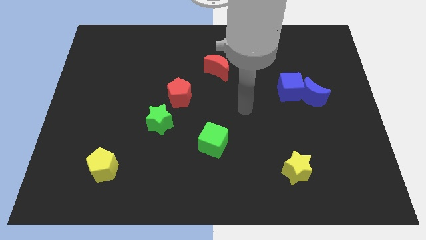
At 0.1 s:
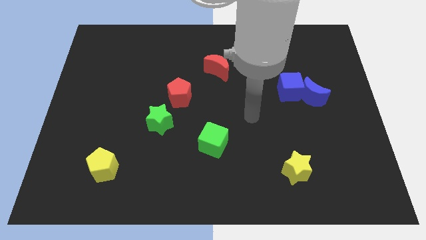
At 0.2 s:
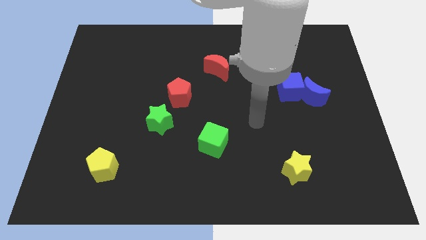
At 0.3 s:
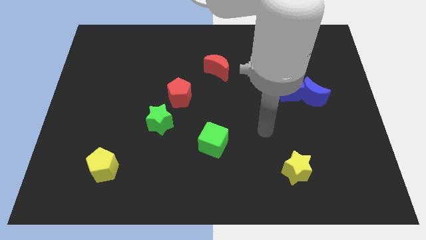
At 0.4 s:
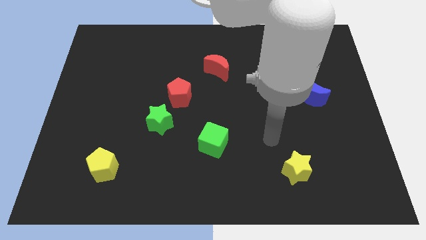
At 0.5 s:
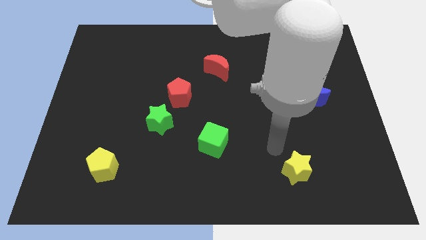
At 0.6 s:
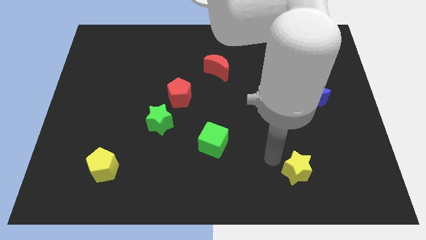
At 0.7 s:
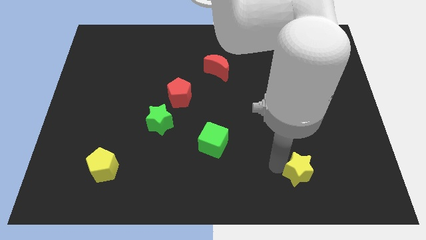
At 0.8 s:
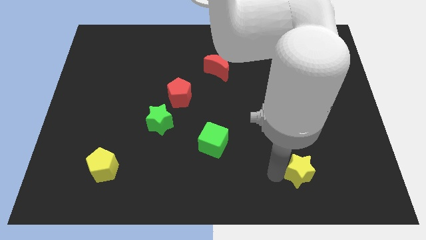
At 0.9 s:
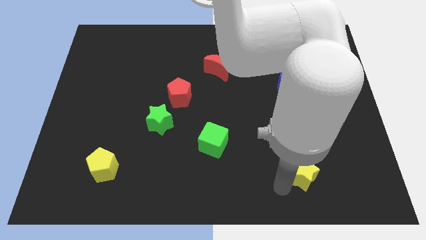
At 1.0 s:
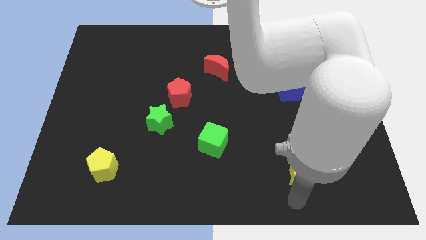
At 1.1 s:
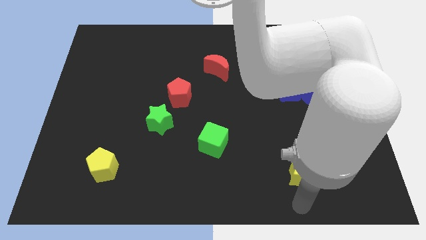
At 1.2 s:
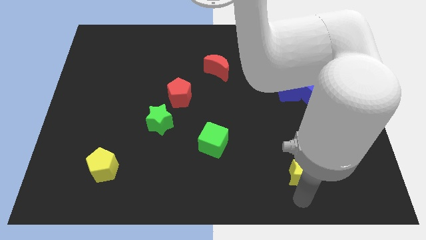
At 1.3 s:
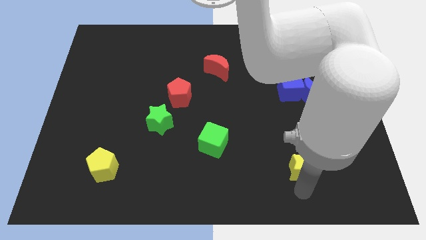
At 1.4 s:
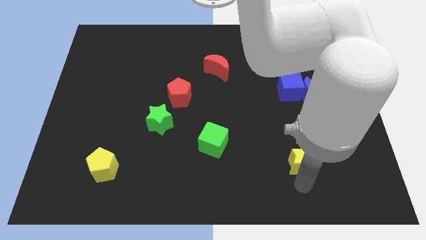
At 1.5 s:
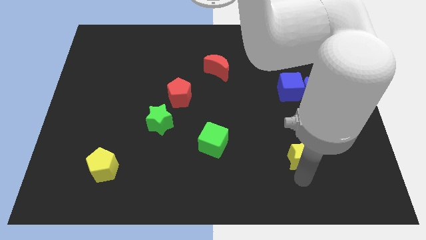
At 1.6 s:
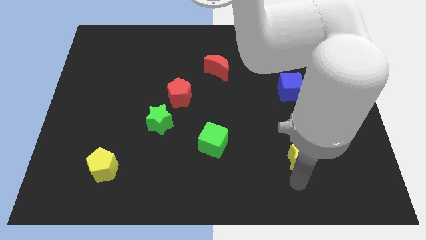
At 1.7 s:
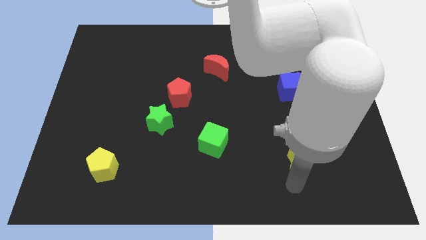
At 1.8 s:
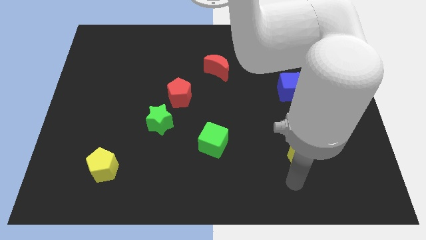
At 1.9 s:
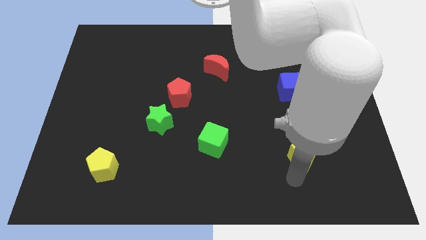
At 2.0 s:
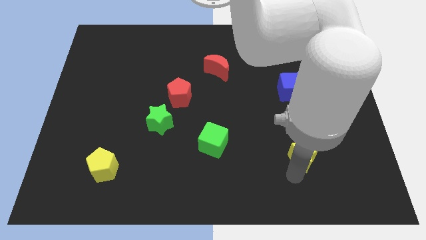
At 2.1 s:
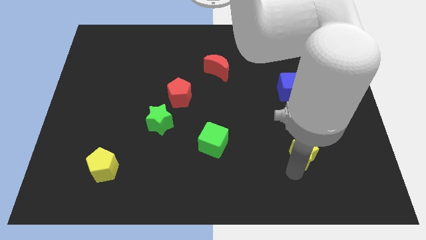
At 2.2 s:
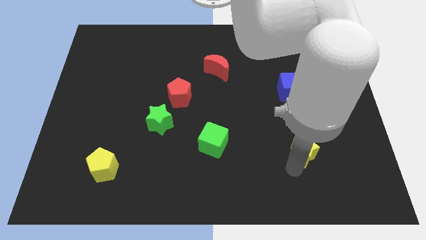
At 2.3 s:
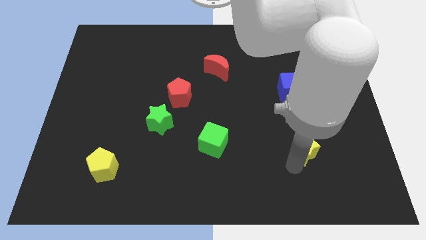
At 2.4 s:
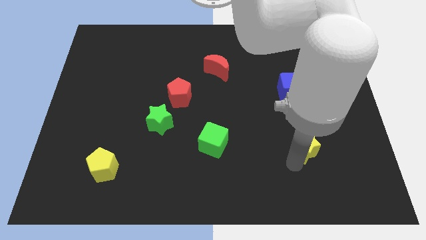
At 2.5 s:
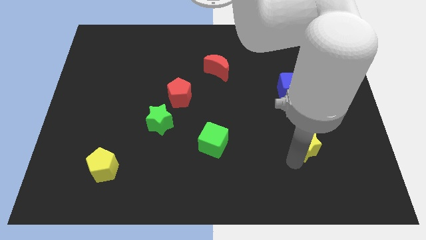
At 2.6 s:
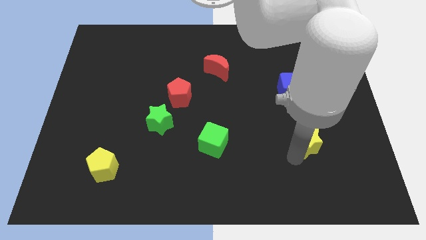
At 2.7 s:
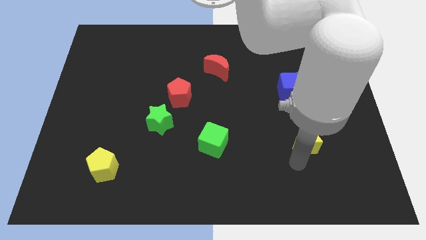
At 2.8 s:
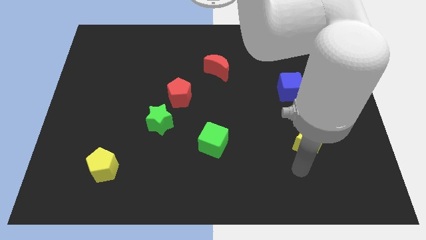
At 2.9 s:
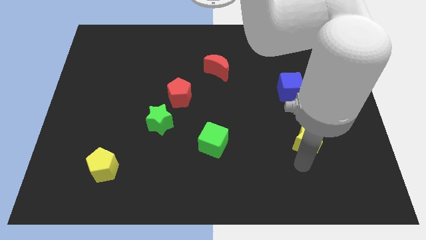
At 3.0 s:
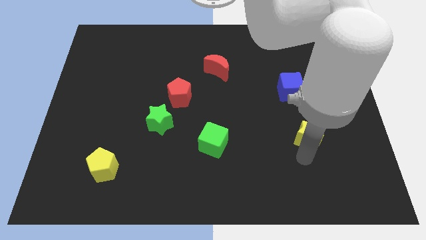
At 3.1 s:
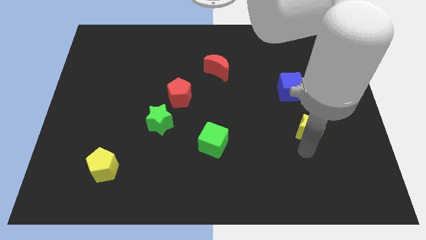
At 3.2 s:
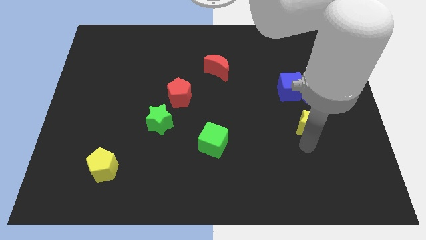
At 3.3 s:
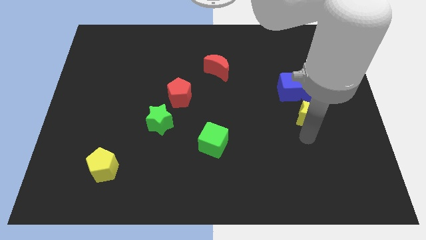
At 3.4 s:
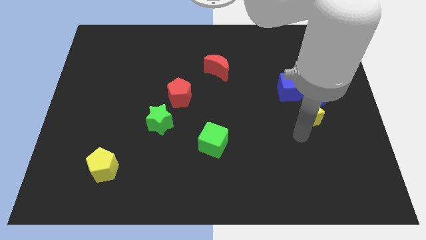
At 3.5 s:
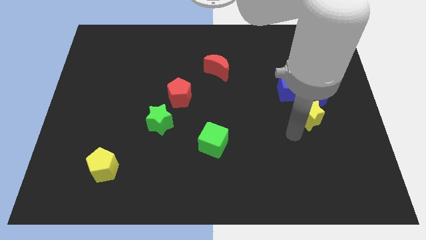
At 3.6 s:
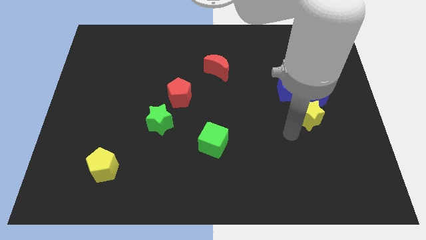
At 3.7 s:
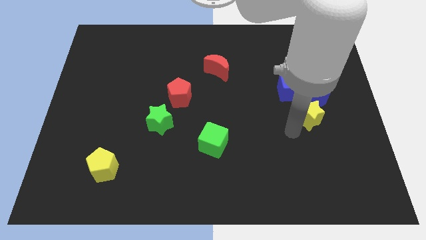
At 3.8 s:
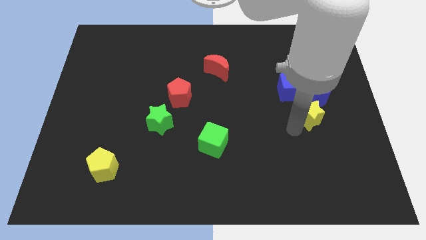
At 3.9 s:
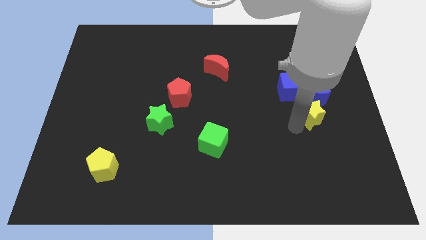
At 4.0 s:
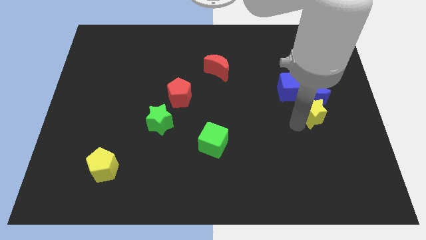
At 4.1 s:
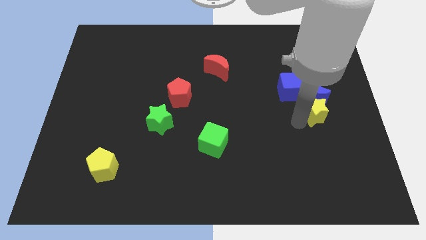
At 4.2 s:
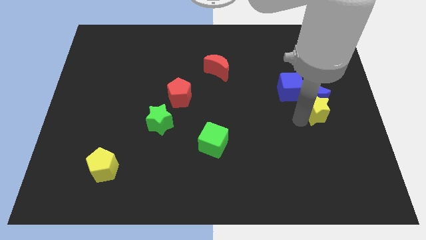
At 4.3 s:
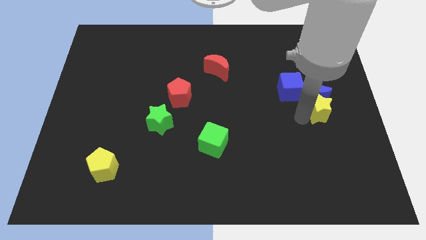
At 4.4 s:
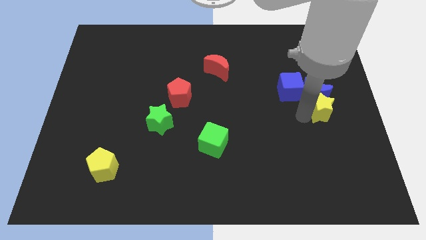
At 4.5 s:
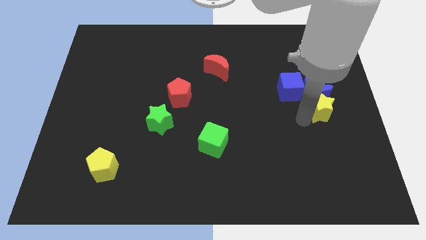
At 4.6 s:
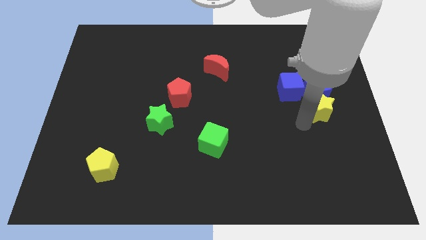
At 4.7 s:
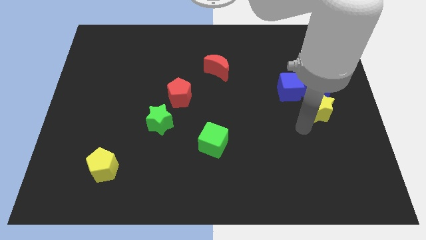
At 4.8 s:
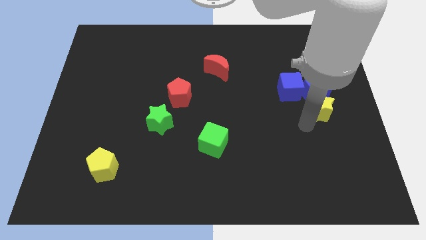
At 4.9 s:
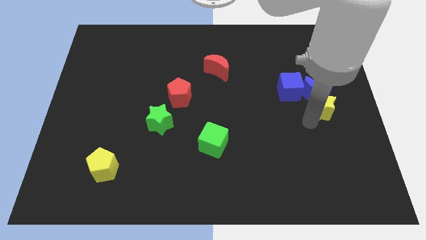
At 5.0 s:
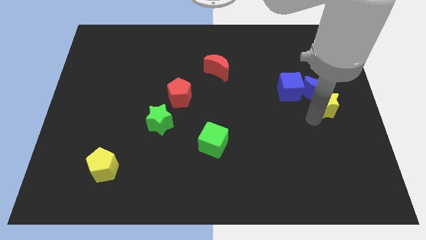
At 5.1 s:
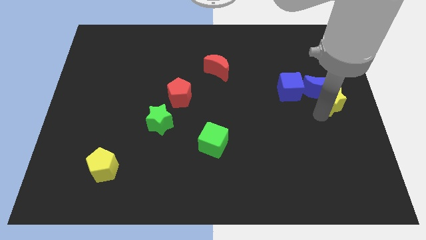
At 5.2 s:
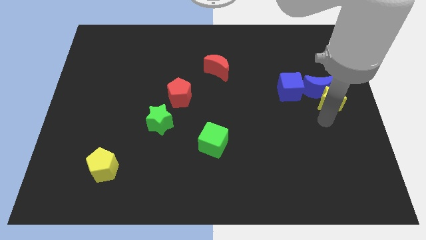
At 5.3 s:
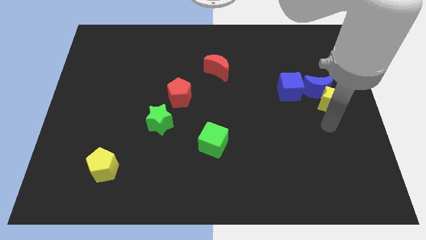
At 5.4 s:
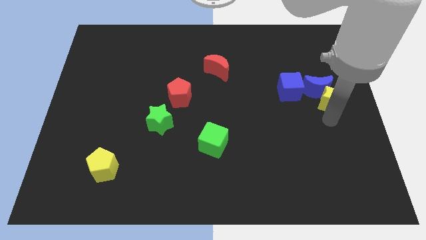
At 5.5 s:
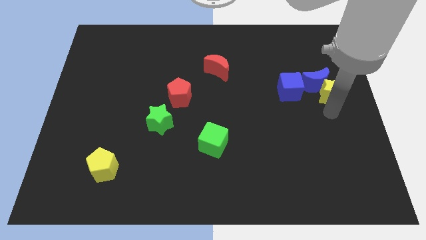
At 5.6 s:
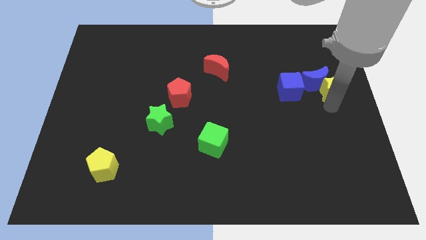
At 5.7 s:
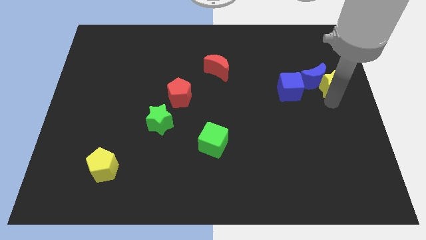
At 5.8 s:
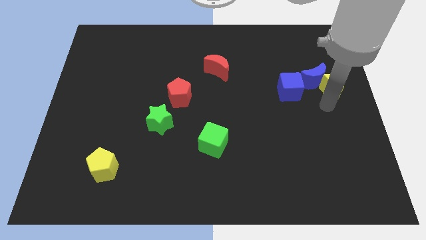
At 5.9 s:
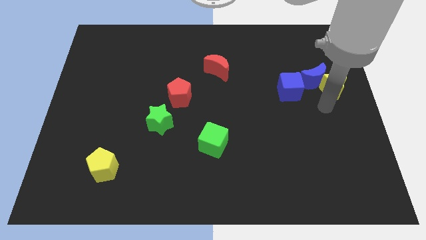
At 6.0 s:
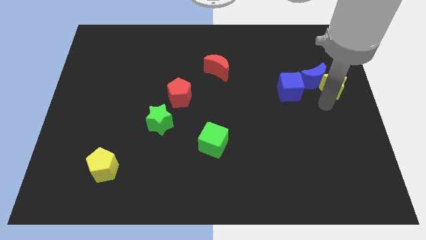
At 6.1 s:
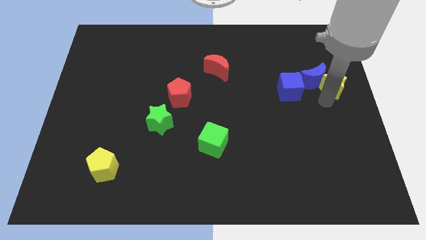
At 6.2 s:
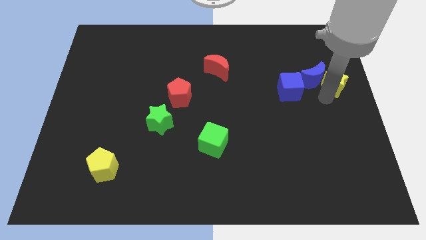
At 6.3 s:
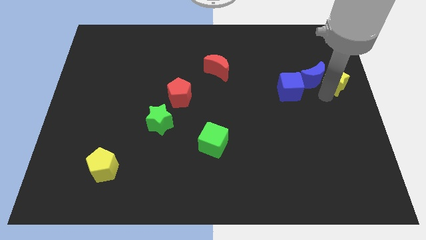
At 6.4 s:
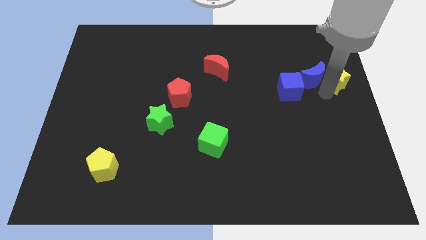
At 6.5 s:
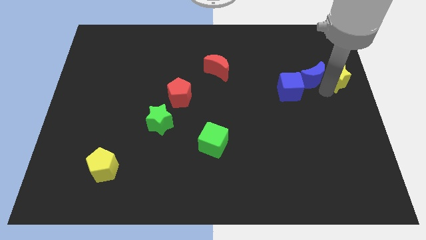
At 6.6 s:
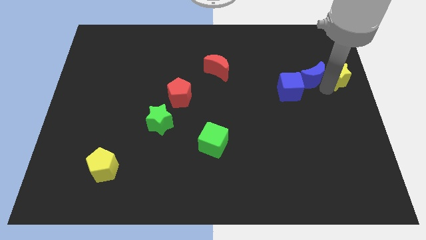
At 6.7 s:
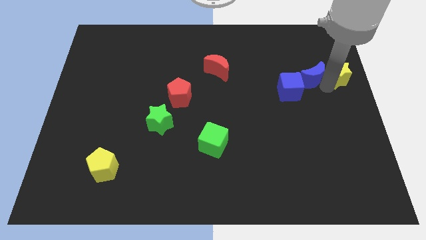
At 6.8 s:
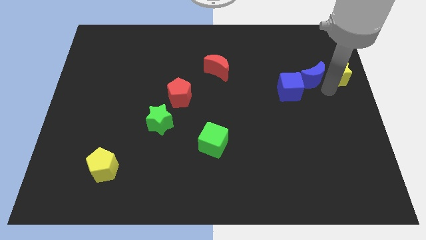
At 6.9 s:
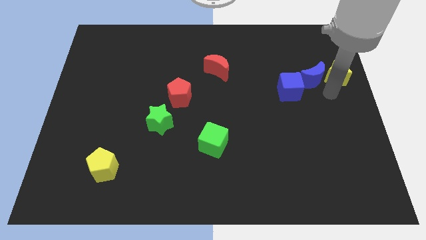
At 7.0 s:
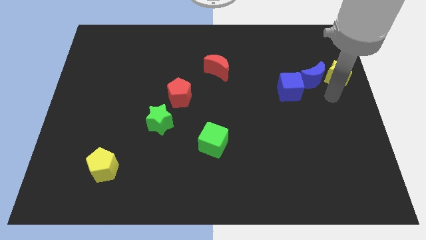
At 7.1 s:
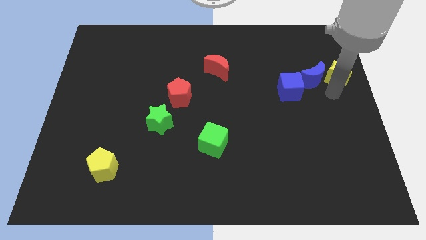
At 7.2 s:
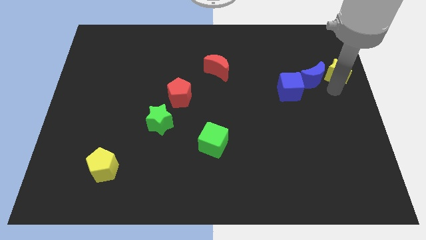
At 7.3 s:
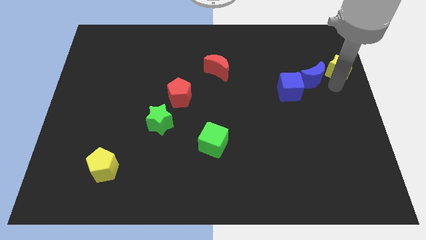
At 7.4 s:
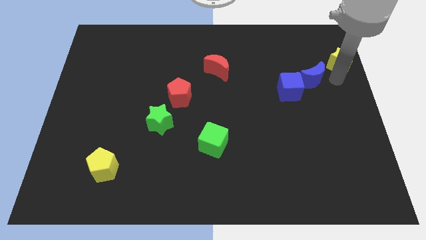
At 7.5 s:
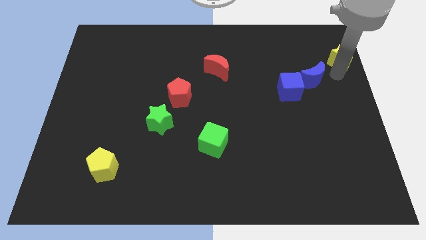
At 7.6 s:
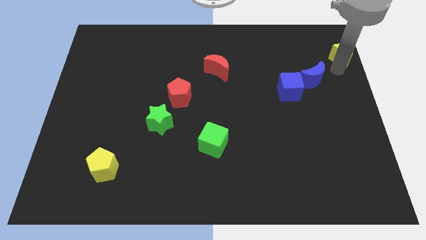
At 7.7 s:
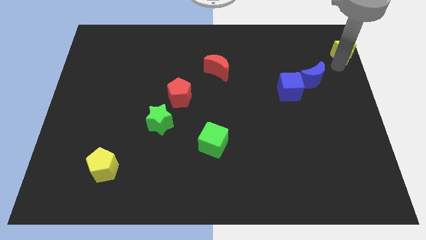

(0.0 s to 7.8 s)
push the yellow star to the top right
